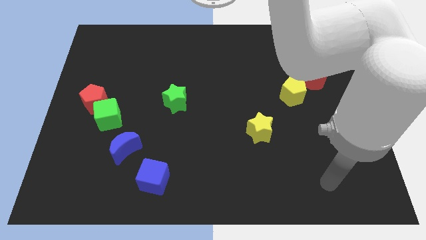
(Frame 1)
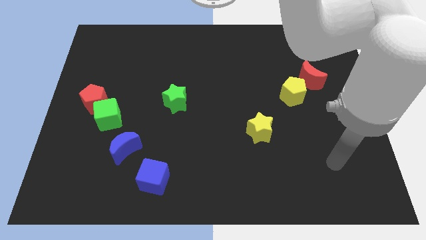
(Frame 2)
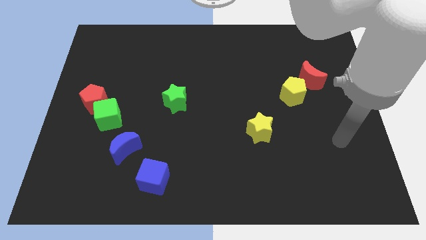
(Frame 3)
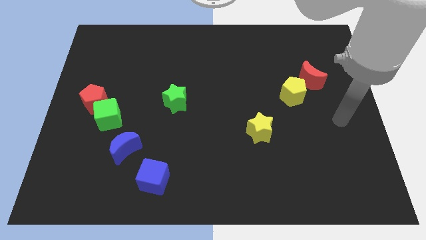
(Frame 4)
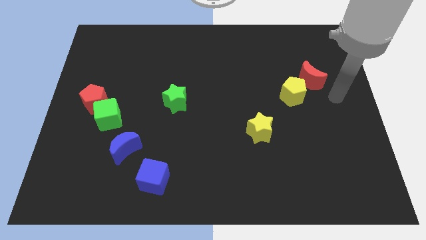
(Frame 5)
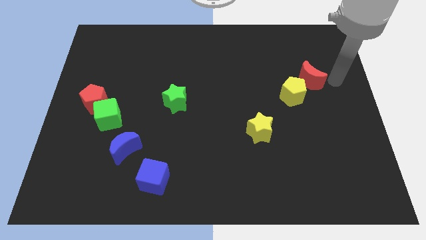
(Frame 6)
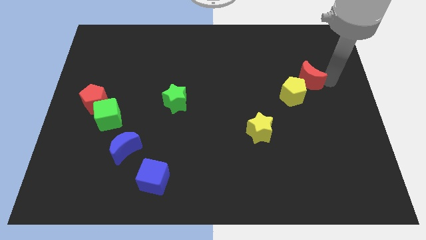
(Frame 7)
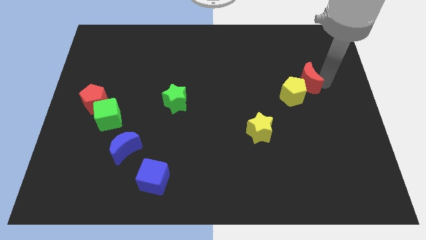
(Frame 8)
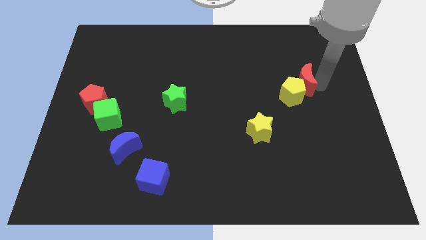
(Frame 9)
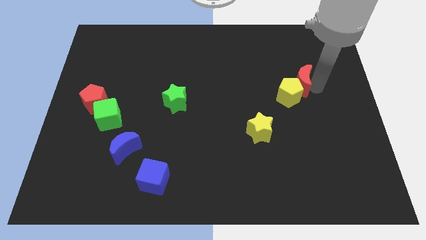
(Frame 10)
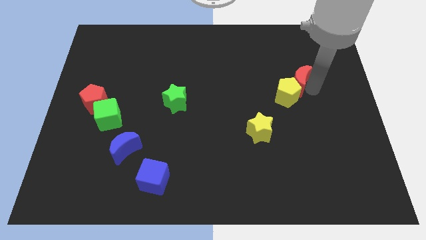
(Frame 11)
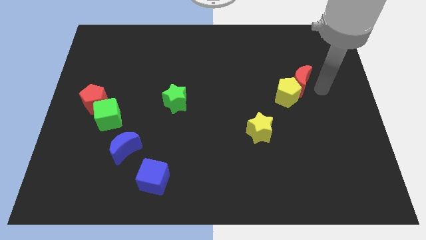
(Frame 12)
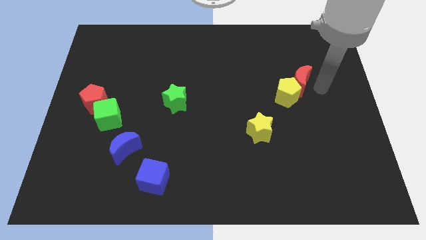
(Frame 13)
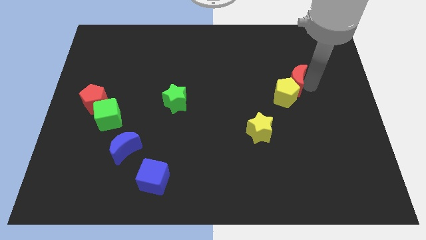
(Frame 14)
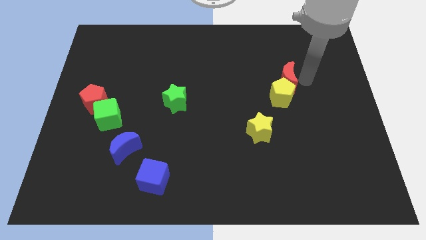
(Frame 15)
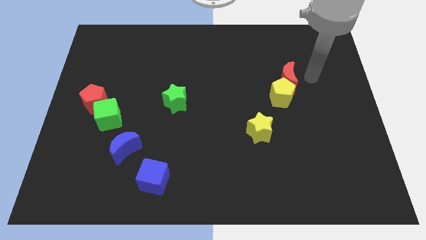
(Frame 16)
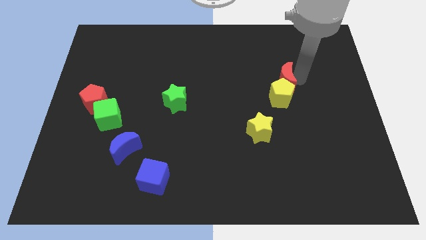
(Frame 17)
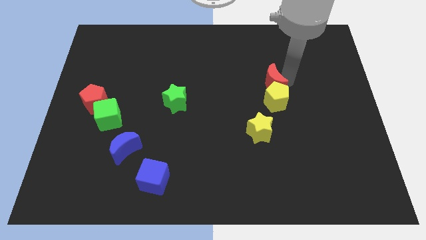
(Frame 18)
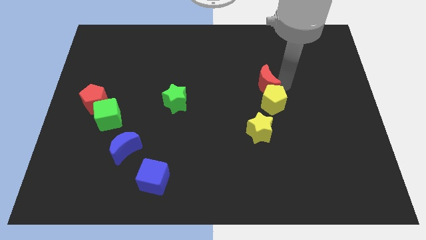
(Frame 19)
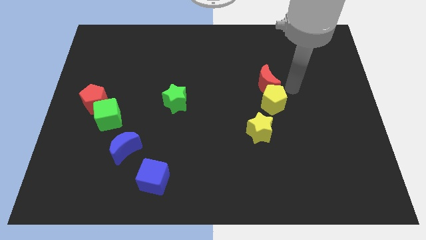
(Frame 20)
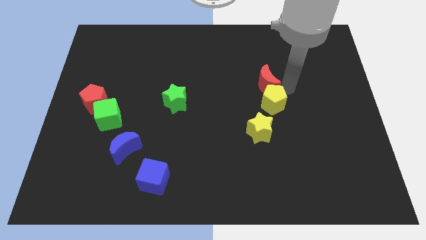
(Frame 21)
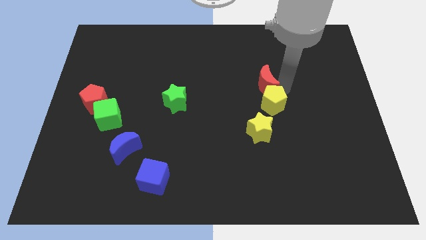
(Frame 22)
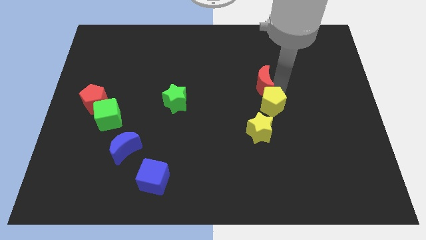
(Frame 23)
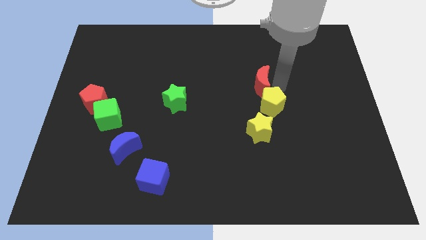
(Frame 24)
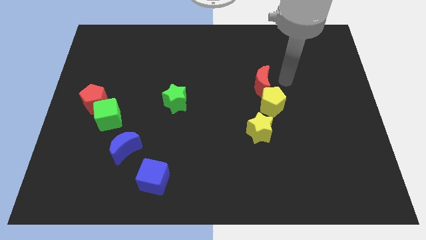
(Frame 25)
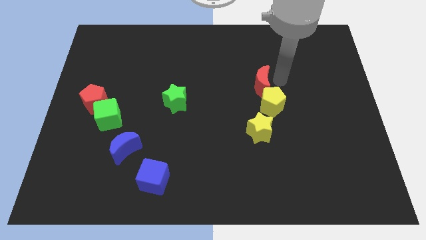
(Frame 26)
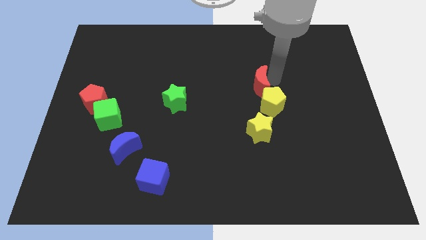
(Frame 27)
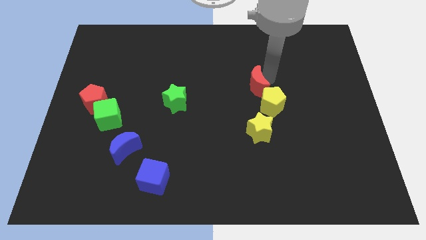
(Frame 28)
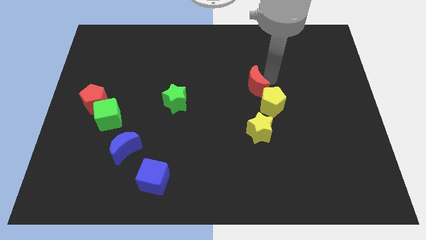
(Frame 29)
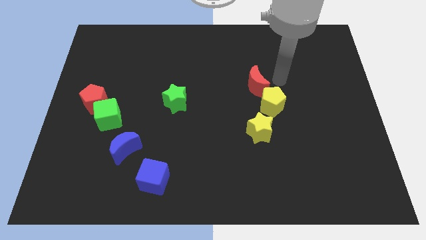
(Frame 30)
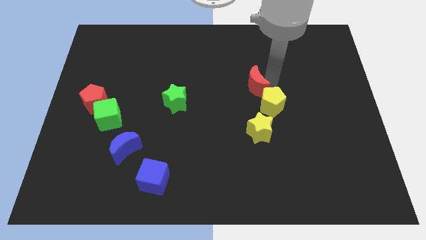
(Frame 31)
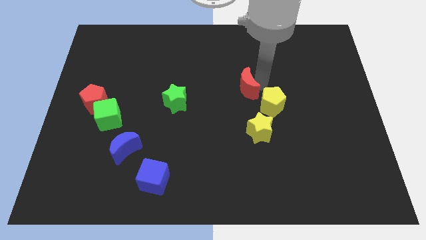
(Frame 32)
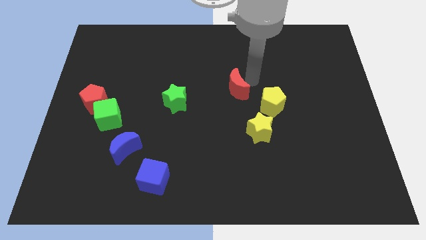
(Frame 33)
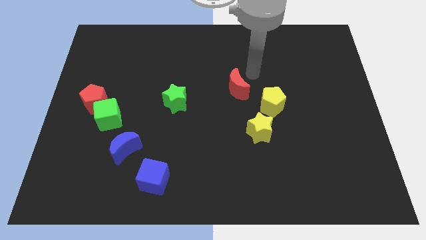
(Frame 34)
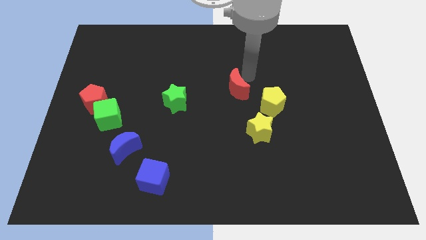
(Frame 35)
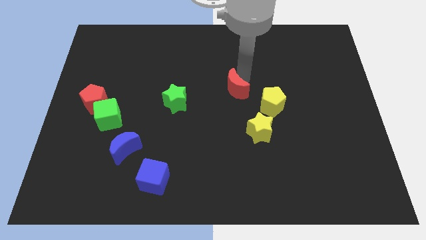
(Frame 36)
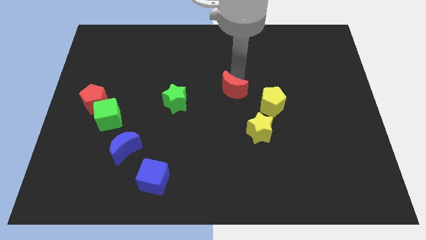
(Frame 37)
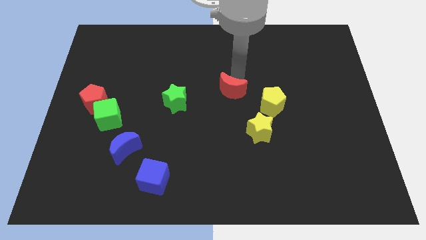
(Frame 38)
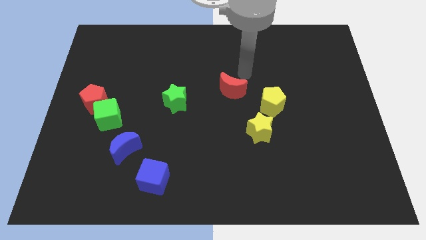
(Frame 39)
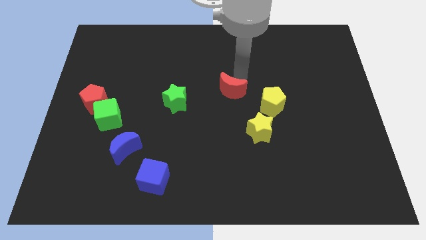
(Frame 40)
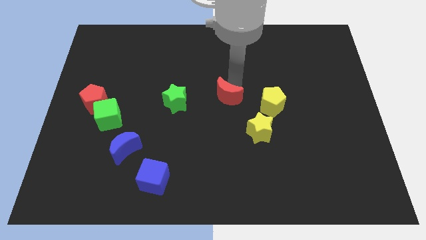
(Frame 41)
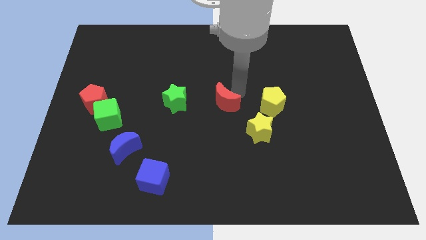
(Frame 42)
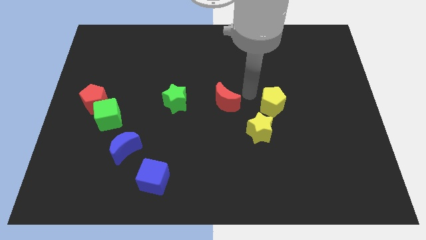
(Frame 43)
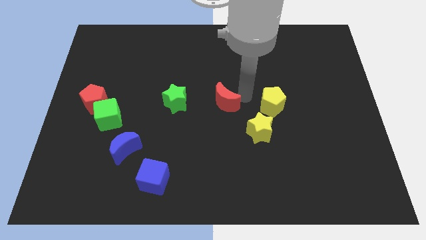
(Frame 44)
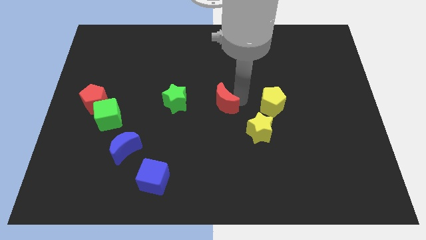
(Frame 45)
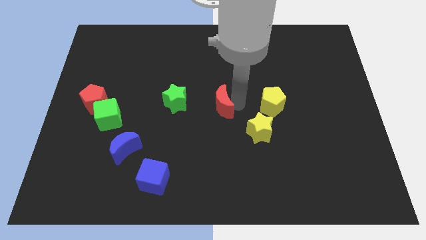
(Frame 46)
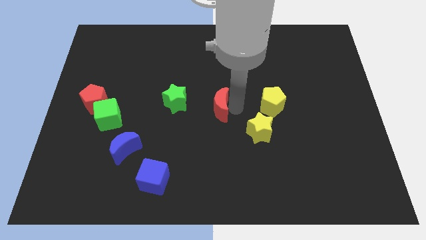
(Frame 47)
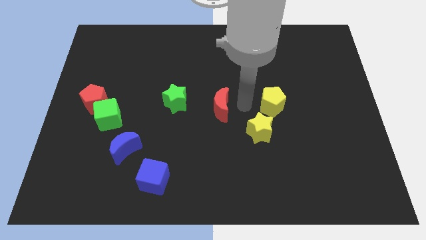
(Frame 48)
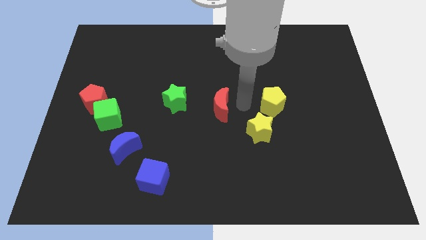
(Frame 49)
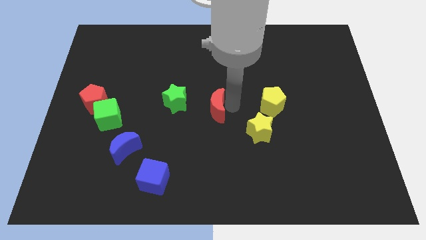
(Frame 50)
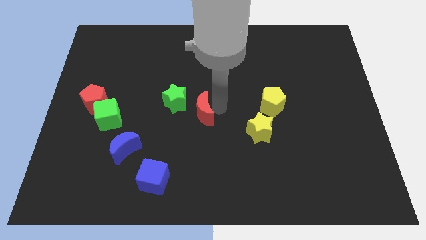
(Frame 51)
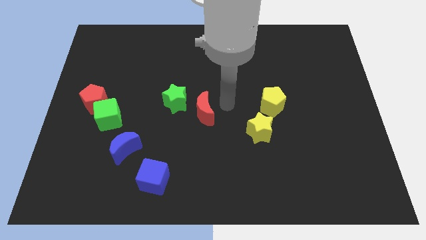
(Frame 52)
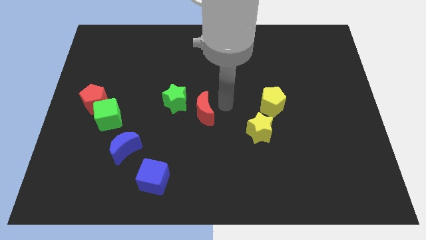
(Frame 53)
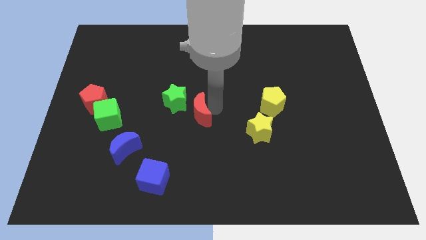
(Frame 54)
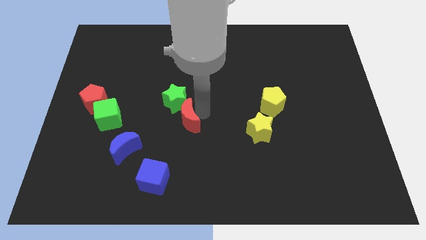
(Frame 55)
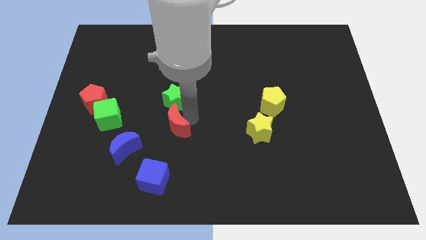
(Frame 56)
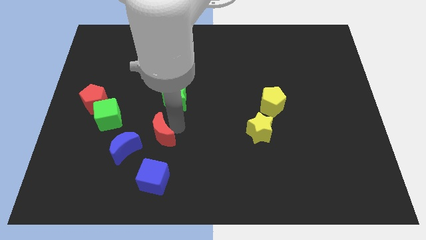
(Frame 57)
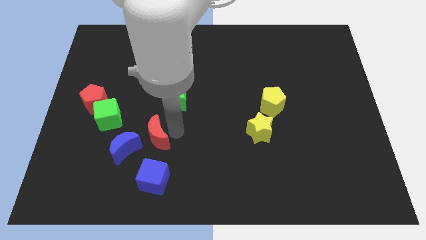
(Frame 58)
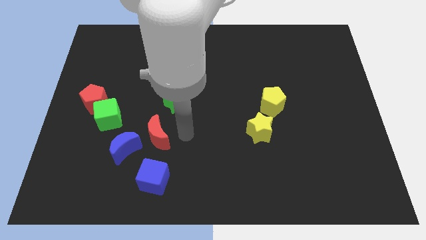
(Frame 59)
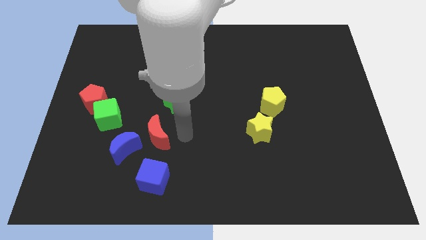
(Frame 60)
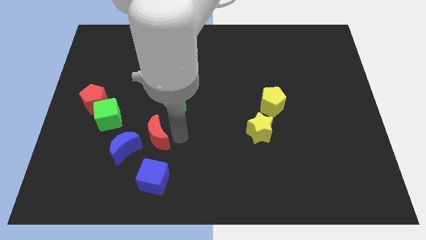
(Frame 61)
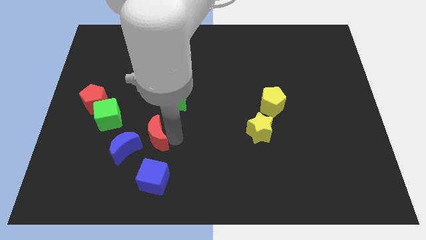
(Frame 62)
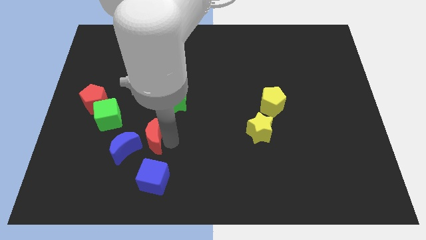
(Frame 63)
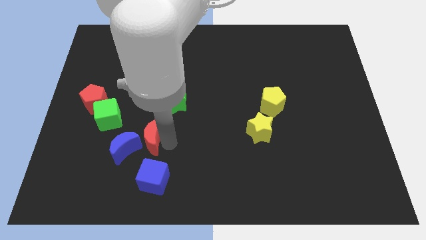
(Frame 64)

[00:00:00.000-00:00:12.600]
put the red moon next to the blue moon
